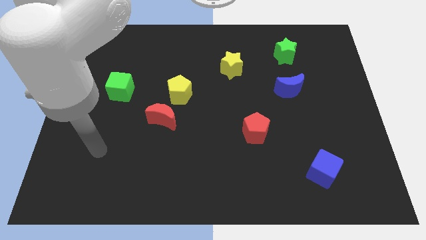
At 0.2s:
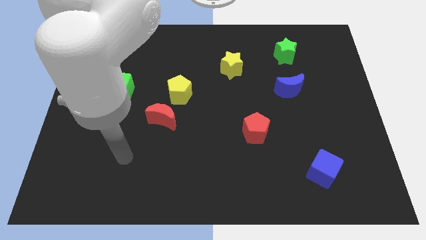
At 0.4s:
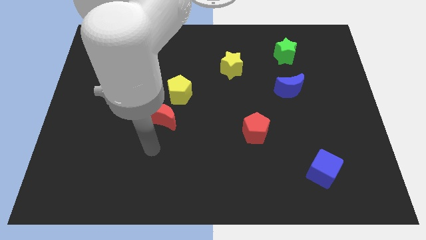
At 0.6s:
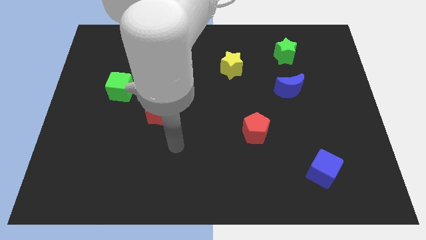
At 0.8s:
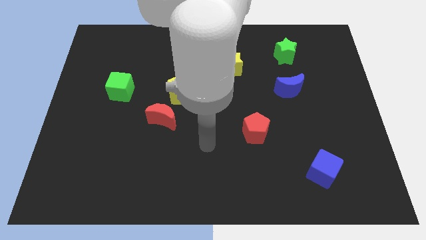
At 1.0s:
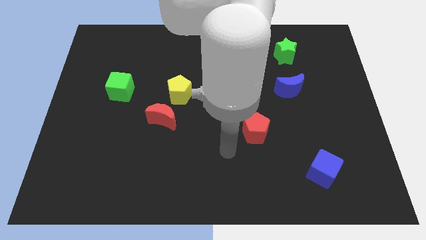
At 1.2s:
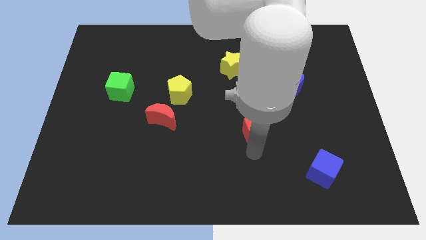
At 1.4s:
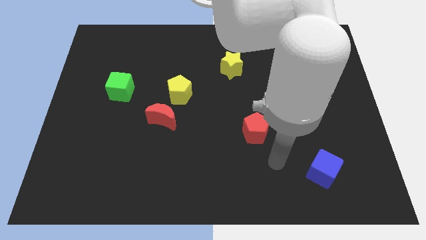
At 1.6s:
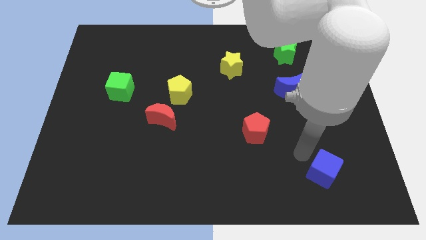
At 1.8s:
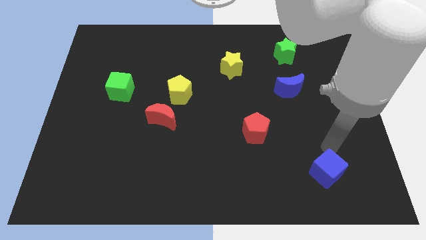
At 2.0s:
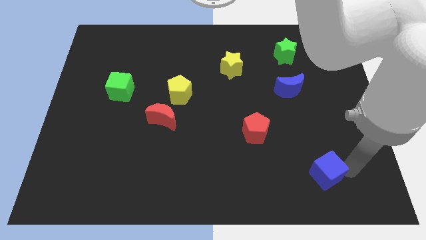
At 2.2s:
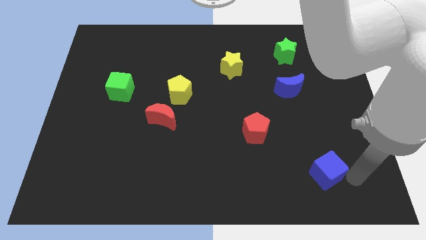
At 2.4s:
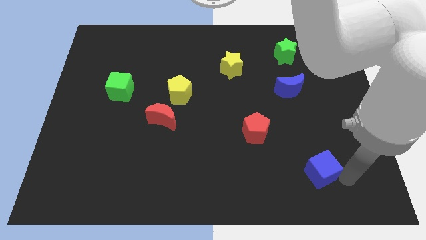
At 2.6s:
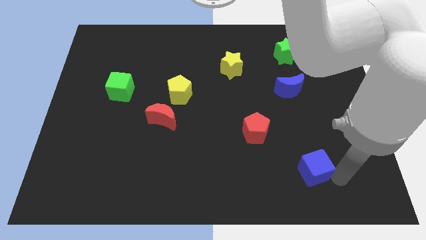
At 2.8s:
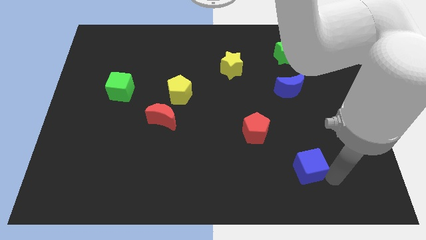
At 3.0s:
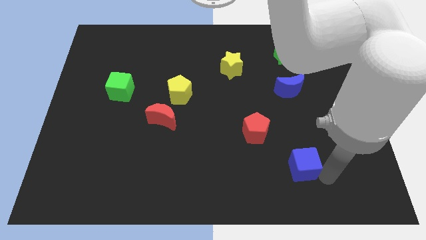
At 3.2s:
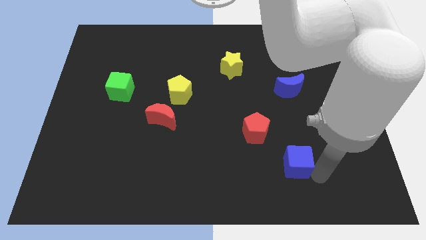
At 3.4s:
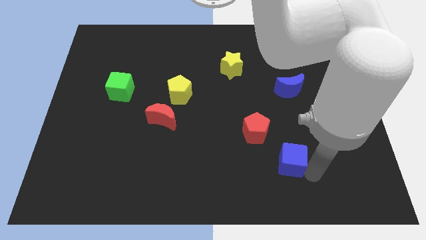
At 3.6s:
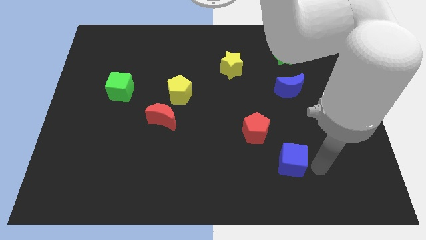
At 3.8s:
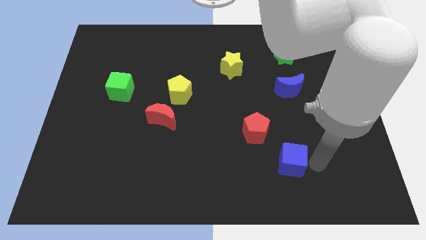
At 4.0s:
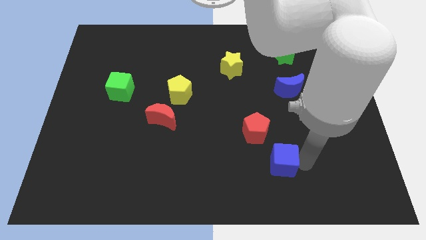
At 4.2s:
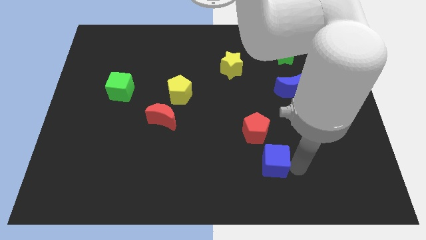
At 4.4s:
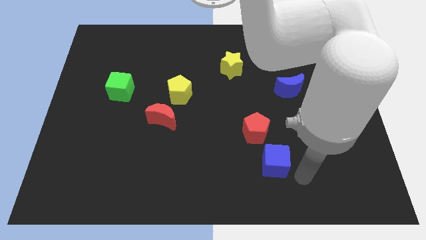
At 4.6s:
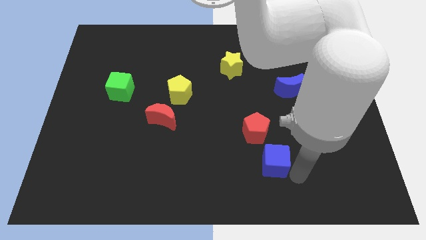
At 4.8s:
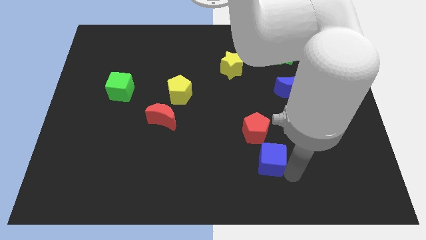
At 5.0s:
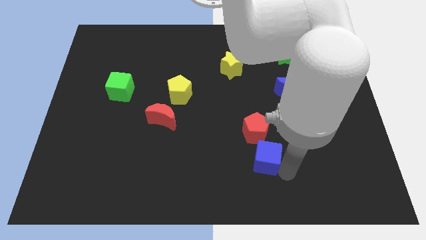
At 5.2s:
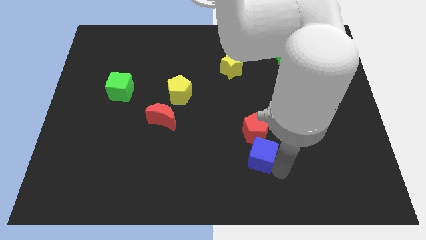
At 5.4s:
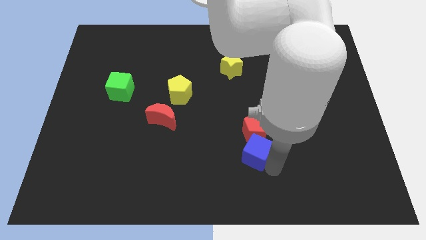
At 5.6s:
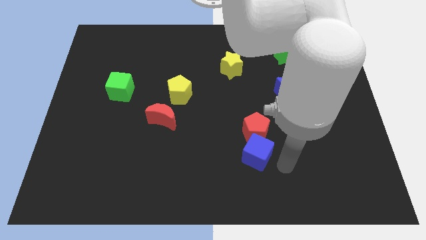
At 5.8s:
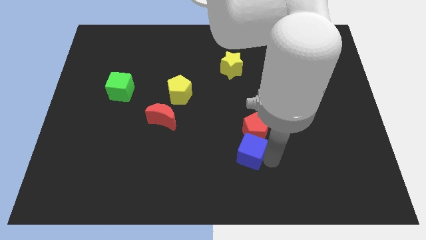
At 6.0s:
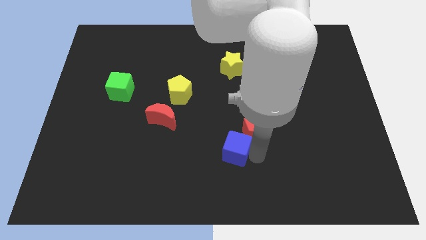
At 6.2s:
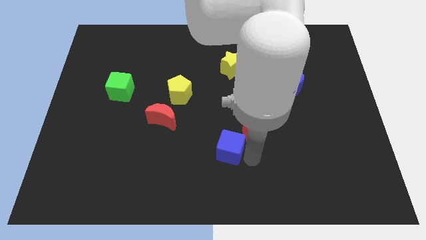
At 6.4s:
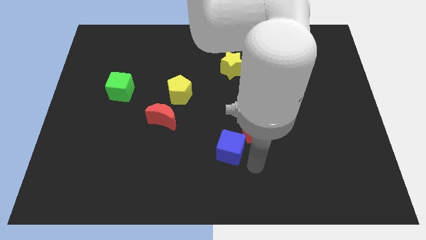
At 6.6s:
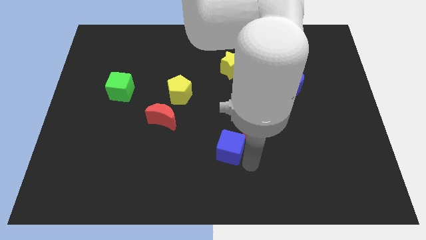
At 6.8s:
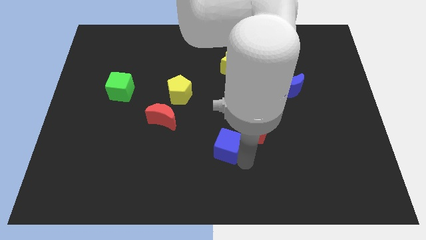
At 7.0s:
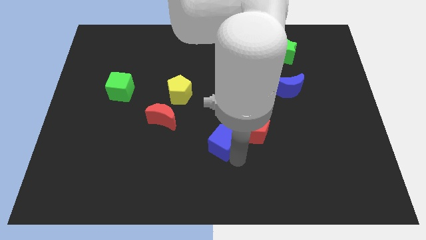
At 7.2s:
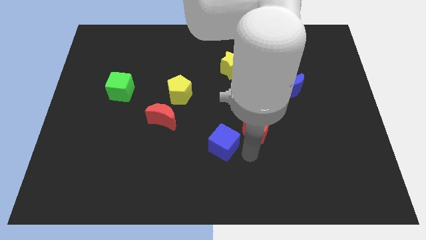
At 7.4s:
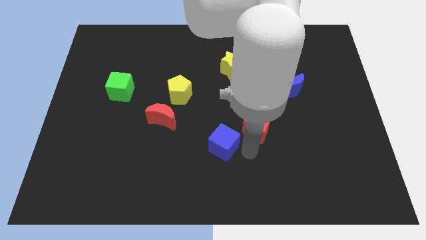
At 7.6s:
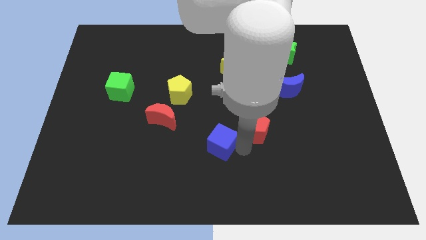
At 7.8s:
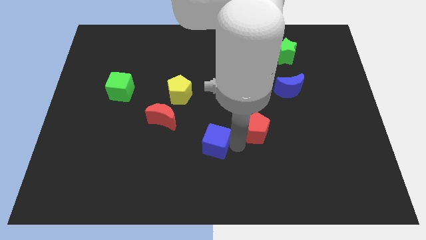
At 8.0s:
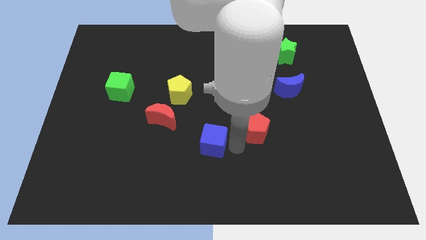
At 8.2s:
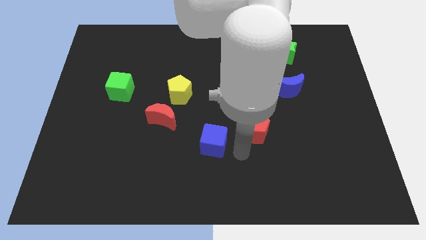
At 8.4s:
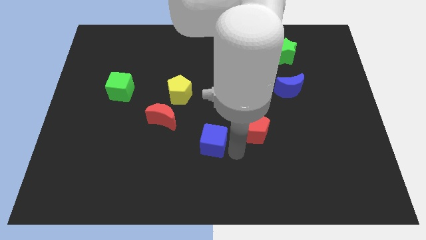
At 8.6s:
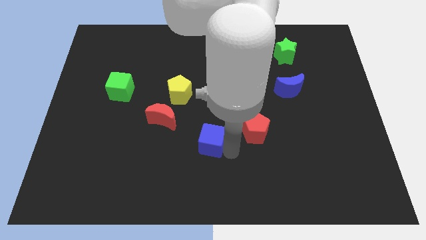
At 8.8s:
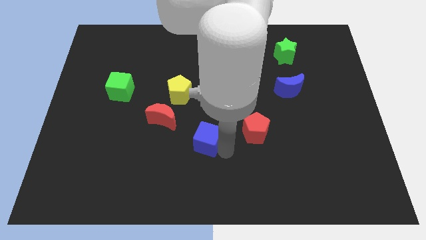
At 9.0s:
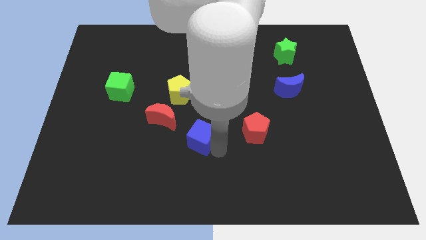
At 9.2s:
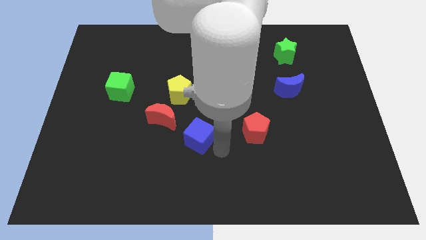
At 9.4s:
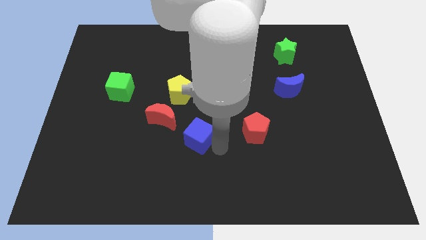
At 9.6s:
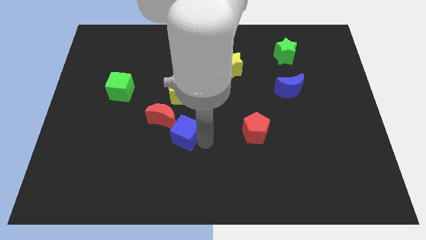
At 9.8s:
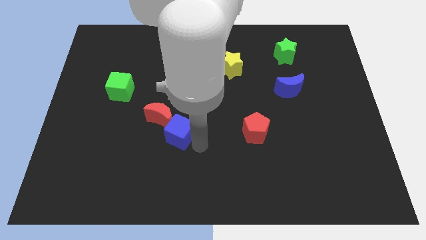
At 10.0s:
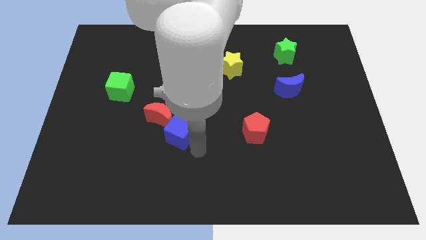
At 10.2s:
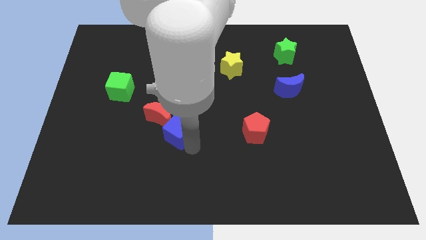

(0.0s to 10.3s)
push the blue cube next to the red moon

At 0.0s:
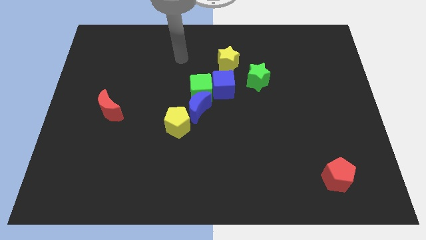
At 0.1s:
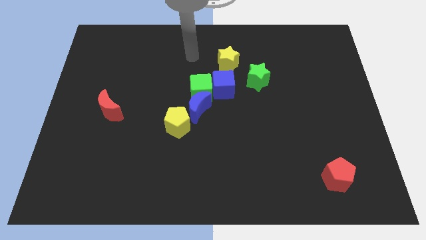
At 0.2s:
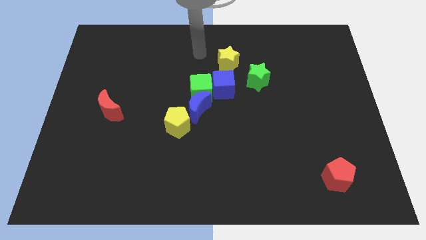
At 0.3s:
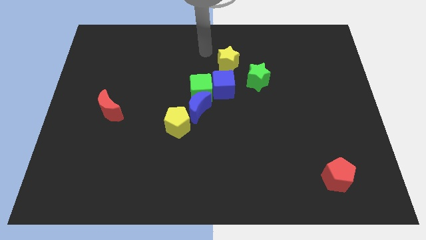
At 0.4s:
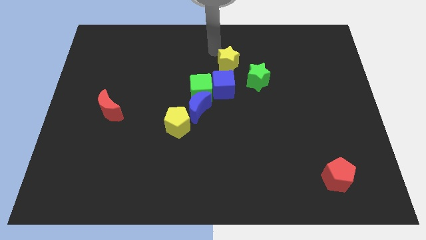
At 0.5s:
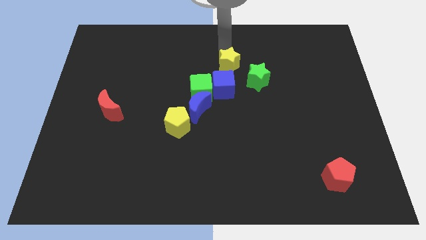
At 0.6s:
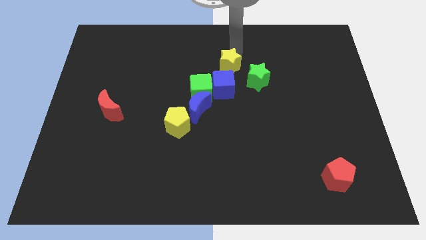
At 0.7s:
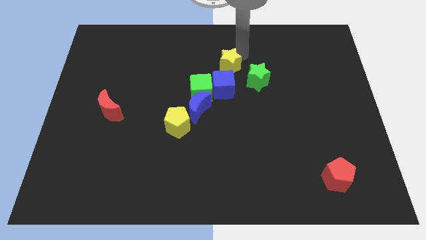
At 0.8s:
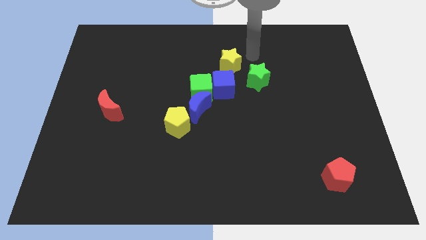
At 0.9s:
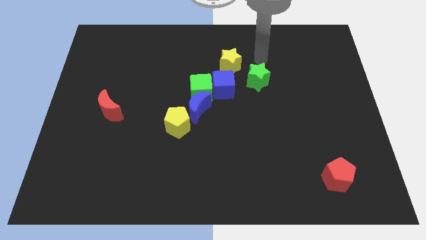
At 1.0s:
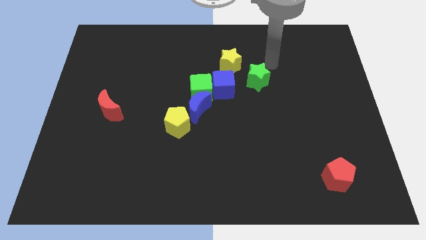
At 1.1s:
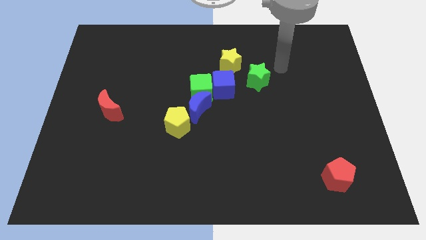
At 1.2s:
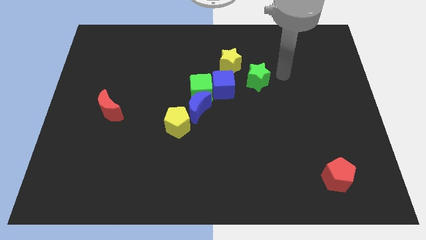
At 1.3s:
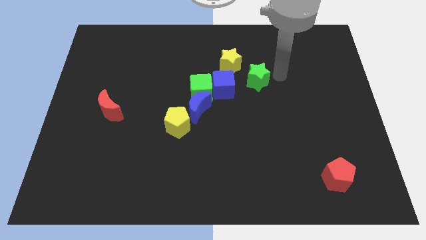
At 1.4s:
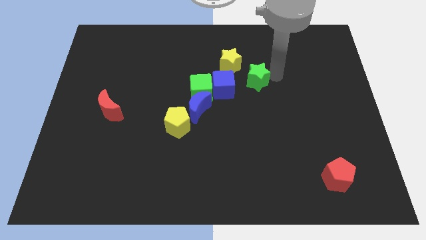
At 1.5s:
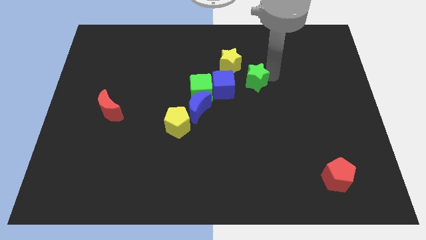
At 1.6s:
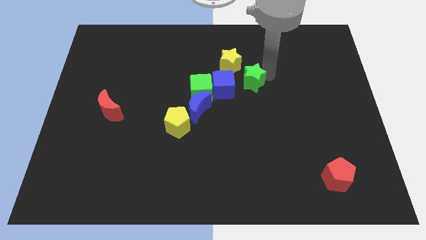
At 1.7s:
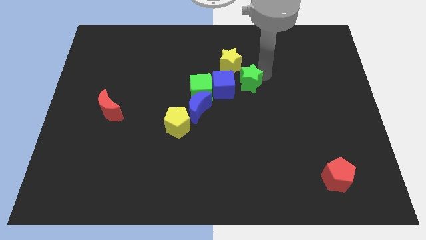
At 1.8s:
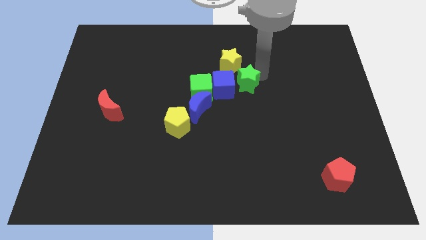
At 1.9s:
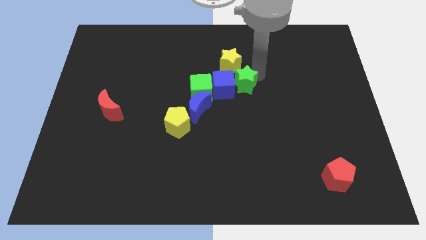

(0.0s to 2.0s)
push the green star to the blue cube
